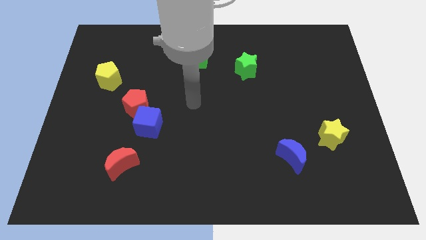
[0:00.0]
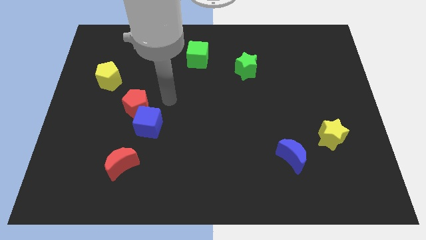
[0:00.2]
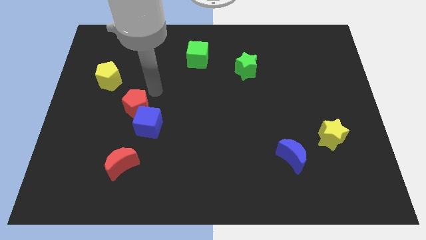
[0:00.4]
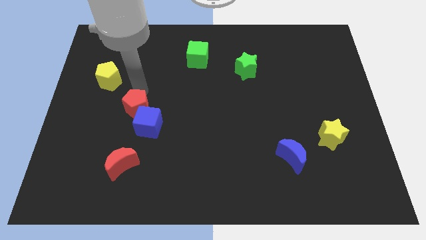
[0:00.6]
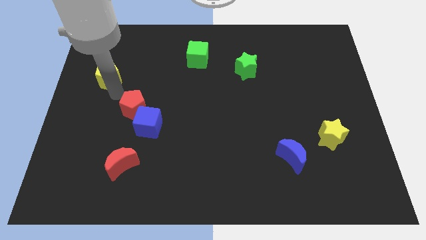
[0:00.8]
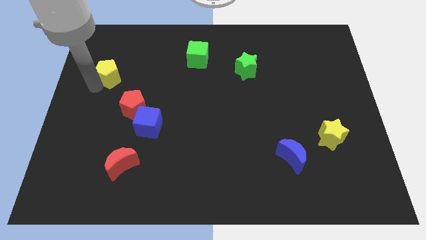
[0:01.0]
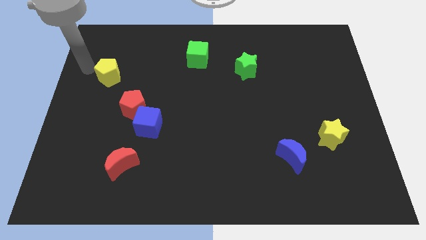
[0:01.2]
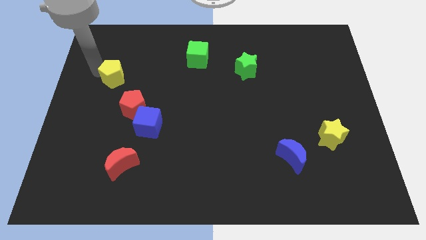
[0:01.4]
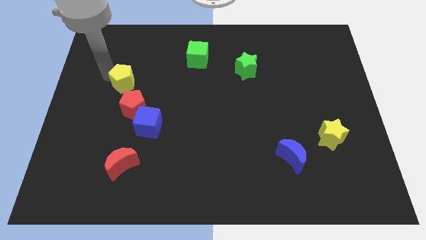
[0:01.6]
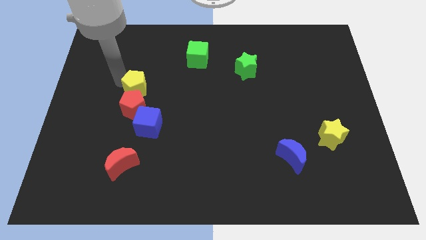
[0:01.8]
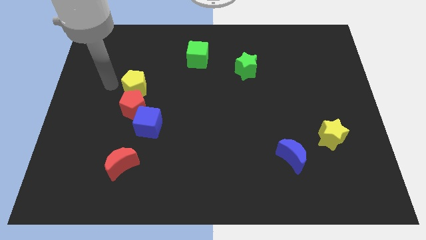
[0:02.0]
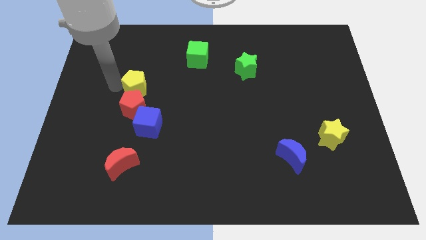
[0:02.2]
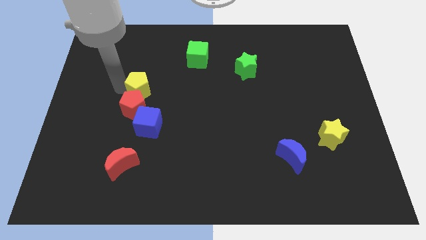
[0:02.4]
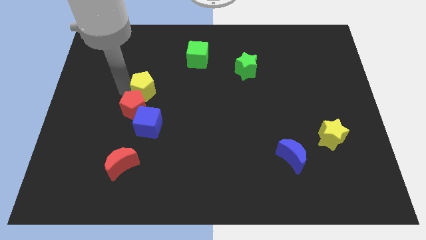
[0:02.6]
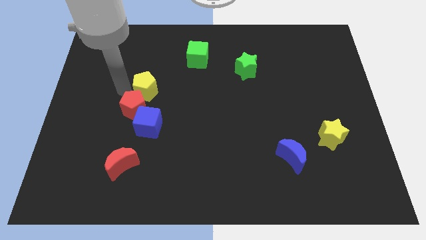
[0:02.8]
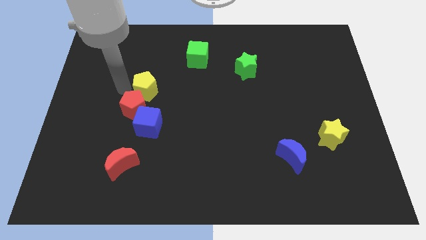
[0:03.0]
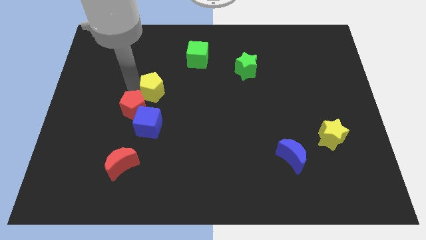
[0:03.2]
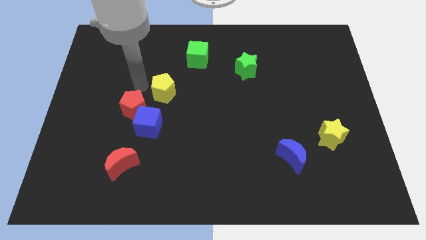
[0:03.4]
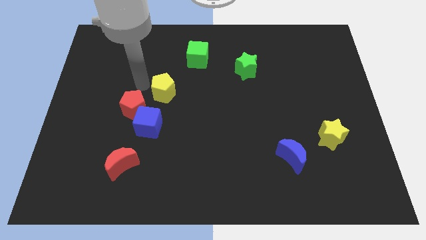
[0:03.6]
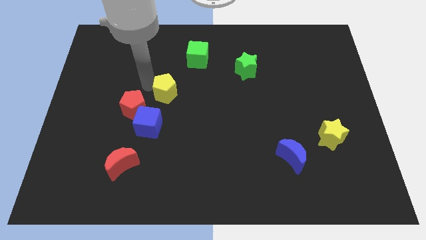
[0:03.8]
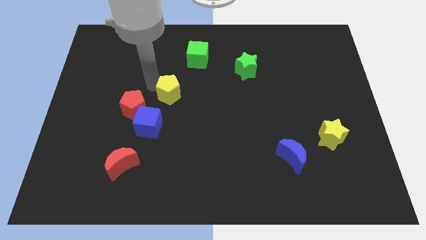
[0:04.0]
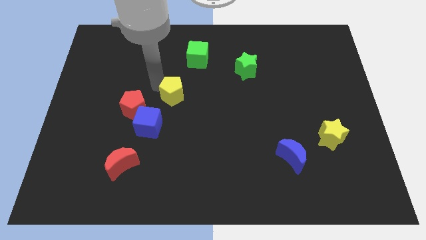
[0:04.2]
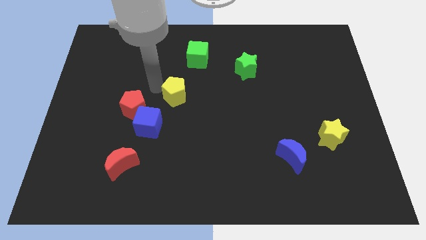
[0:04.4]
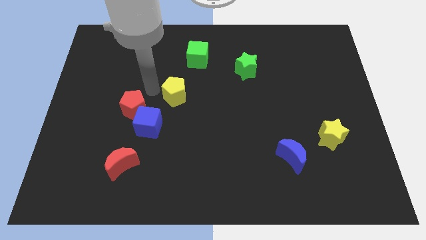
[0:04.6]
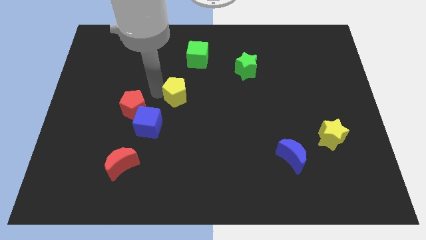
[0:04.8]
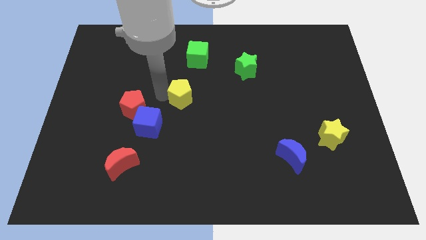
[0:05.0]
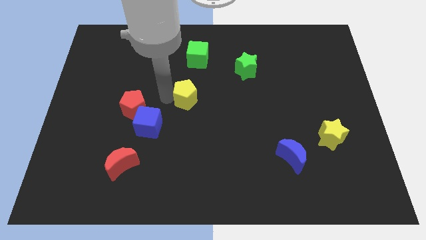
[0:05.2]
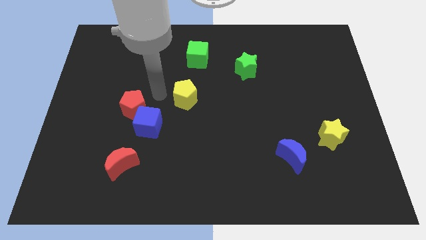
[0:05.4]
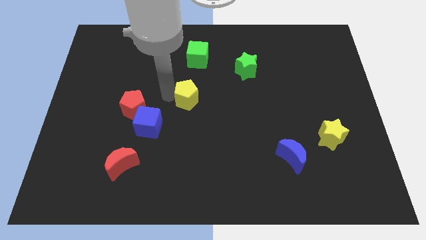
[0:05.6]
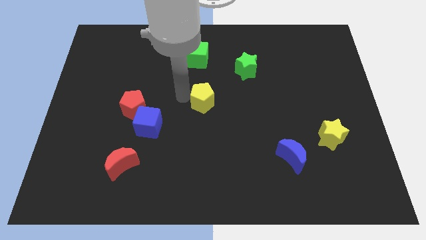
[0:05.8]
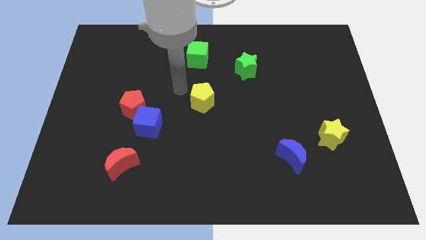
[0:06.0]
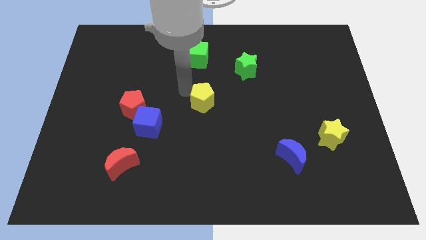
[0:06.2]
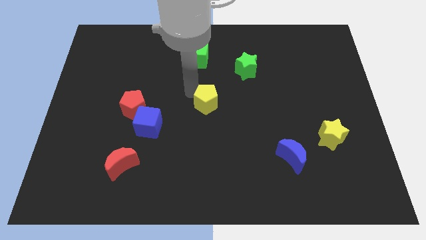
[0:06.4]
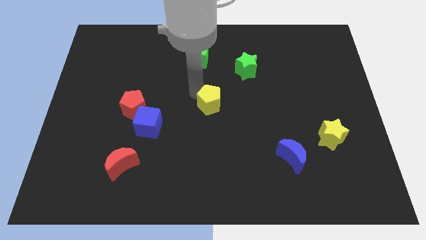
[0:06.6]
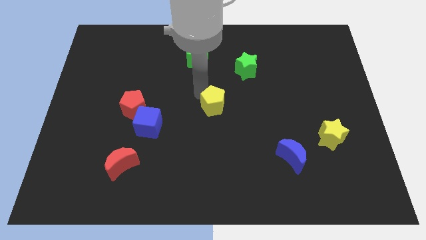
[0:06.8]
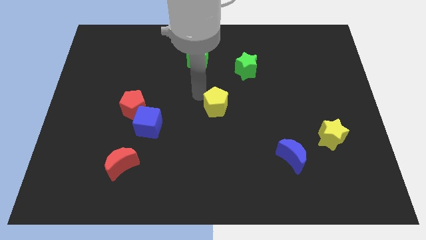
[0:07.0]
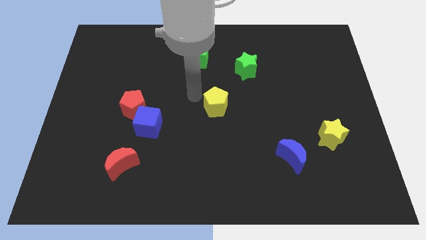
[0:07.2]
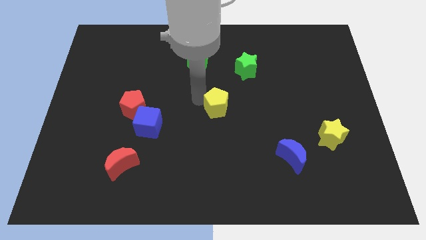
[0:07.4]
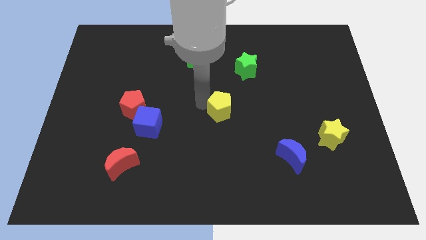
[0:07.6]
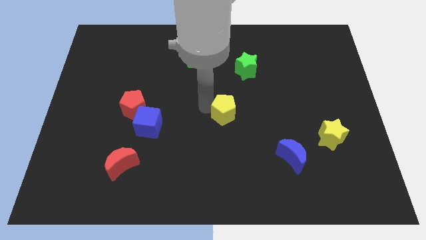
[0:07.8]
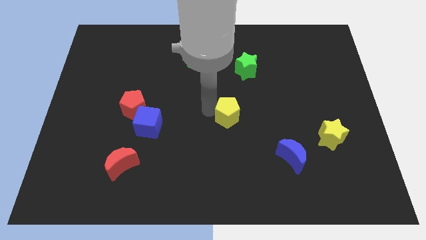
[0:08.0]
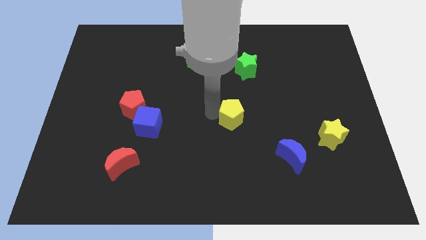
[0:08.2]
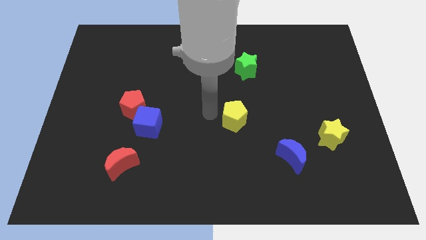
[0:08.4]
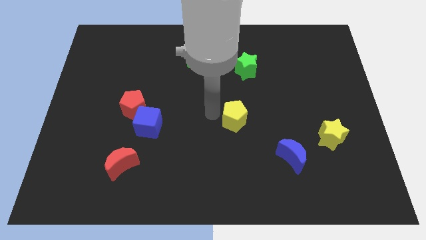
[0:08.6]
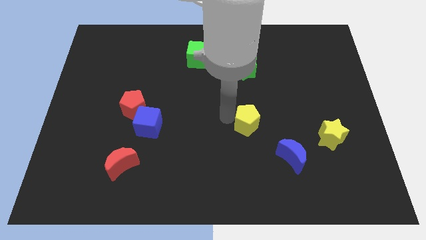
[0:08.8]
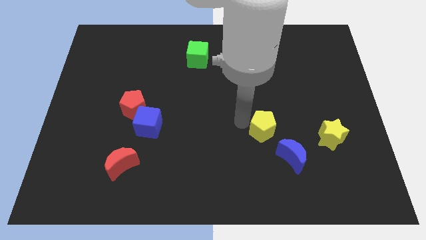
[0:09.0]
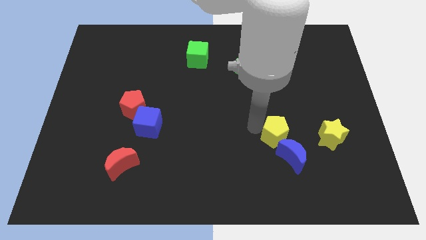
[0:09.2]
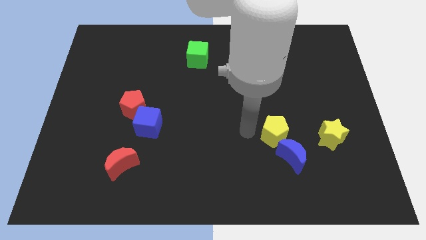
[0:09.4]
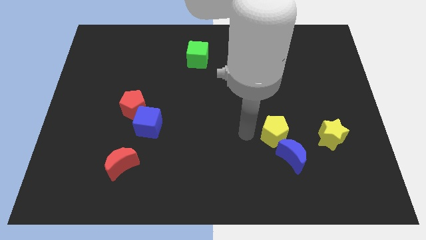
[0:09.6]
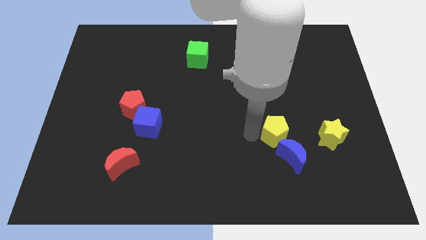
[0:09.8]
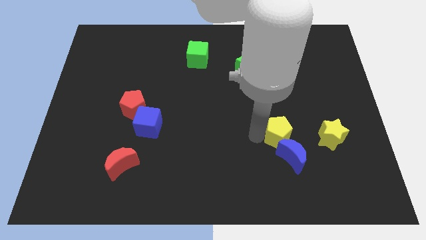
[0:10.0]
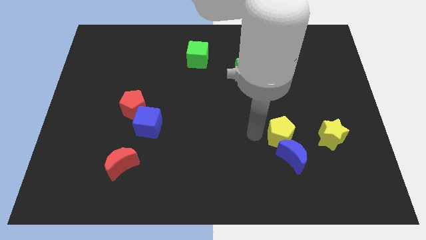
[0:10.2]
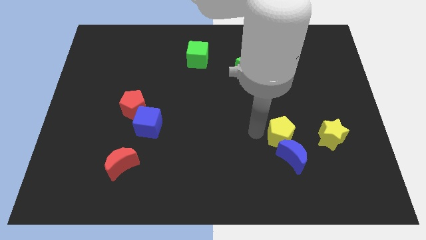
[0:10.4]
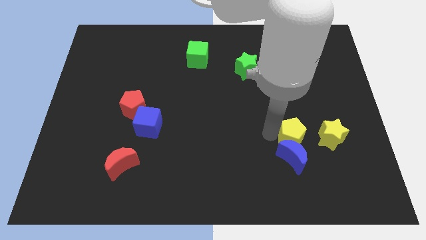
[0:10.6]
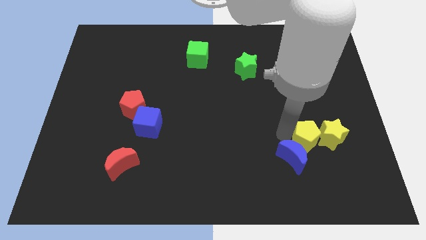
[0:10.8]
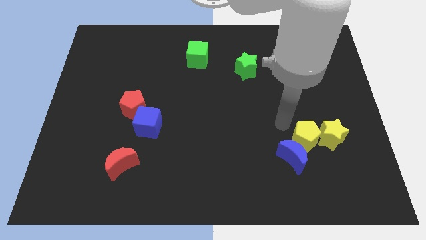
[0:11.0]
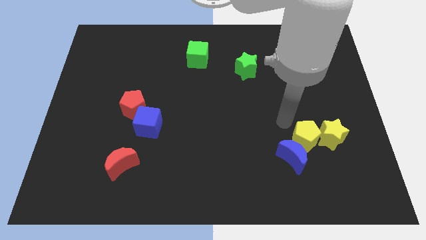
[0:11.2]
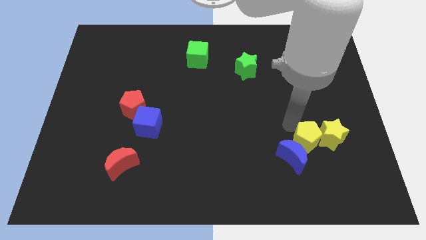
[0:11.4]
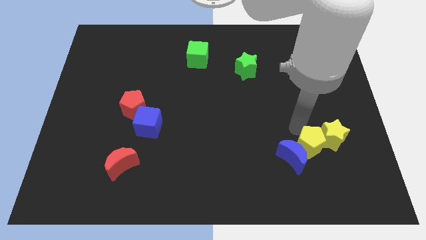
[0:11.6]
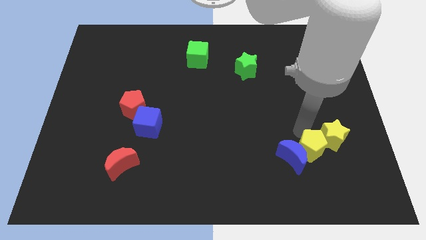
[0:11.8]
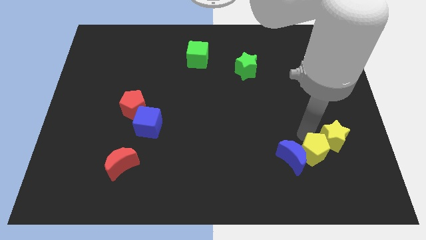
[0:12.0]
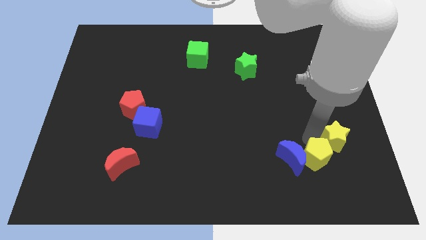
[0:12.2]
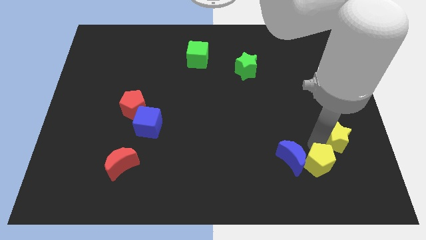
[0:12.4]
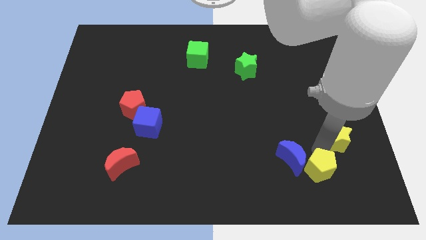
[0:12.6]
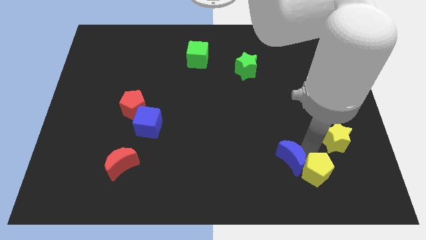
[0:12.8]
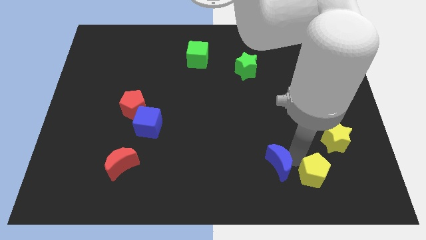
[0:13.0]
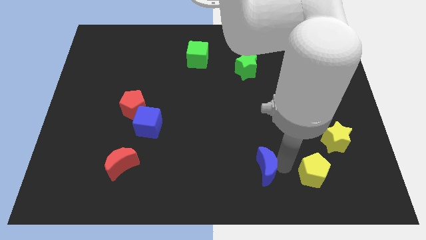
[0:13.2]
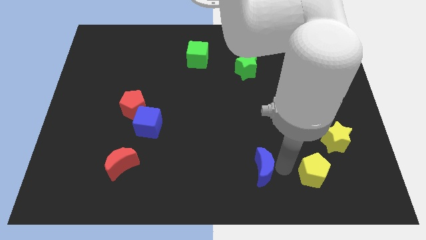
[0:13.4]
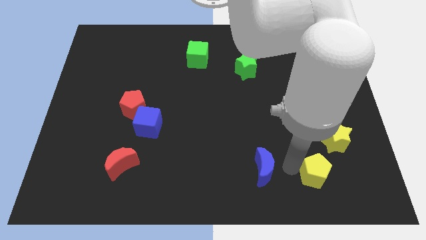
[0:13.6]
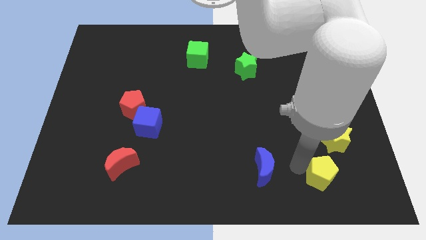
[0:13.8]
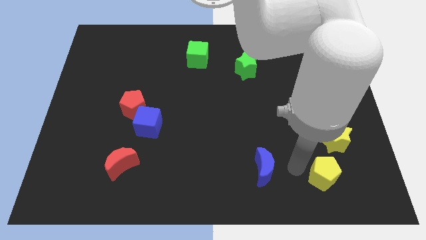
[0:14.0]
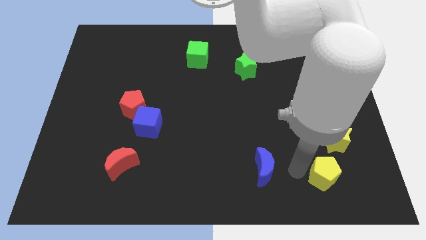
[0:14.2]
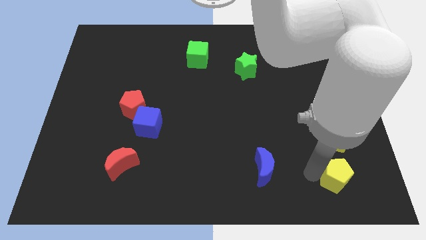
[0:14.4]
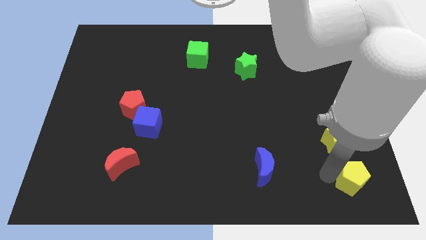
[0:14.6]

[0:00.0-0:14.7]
slide the yellow pentagon to the bottom right
